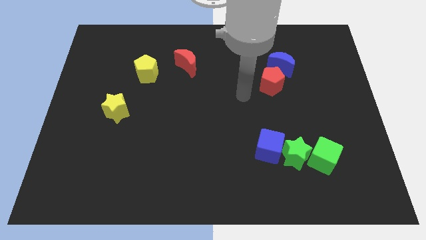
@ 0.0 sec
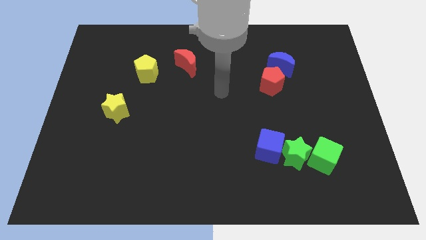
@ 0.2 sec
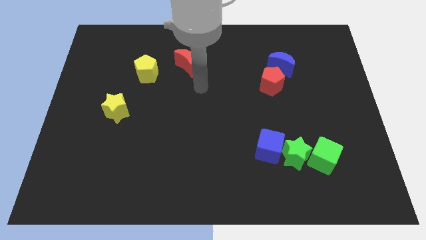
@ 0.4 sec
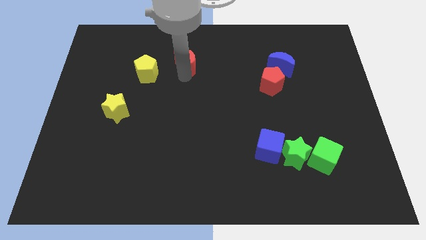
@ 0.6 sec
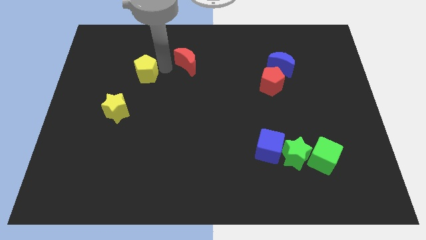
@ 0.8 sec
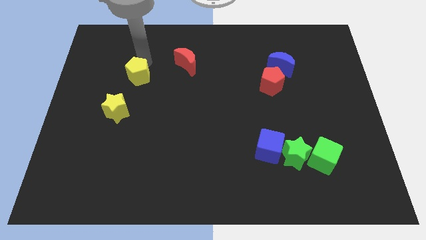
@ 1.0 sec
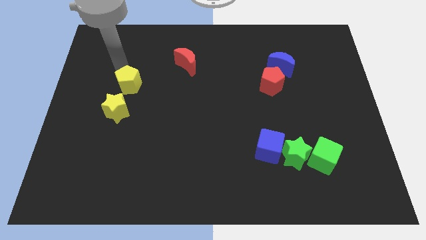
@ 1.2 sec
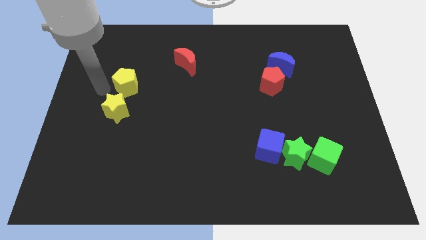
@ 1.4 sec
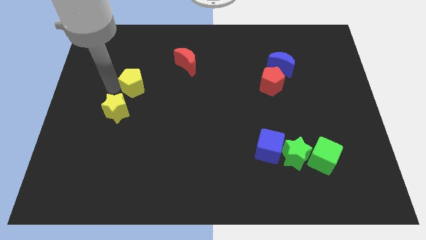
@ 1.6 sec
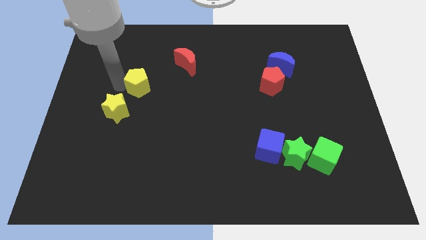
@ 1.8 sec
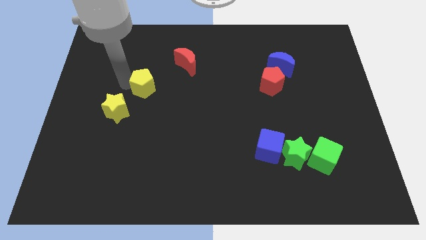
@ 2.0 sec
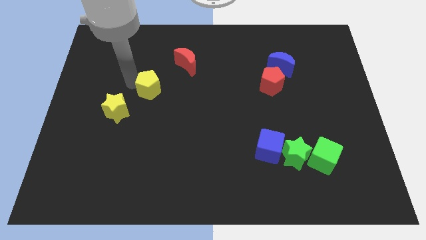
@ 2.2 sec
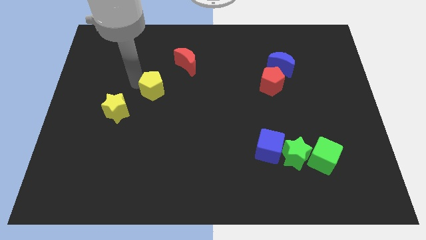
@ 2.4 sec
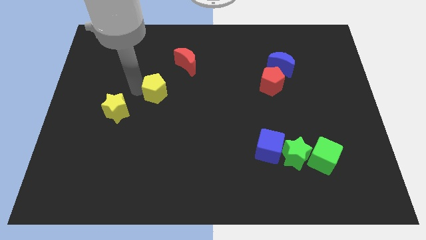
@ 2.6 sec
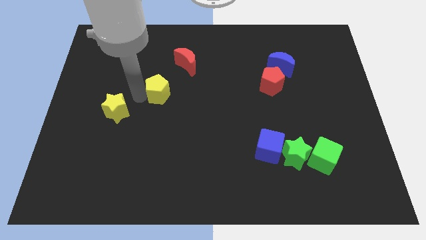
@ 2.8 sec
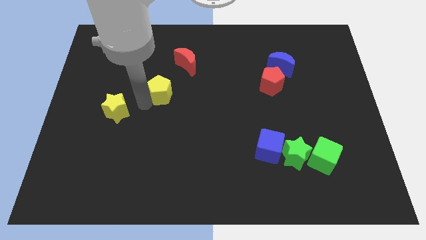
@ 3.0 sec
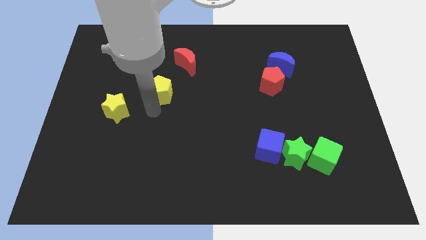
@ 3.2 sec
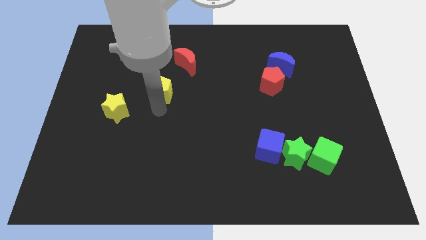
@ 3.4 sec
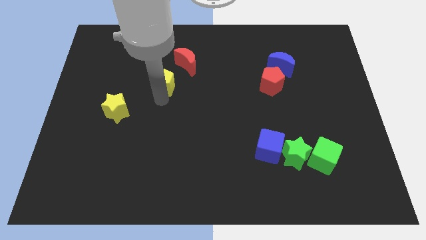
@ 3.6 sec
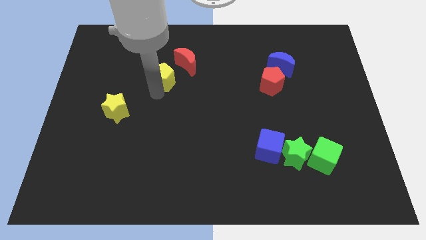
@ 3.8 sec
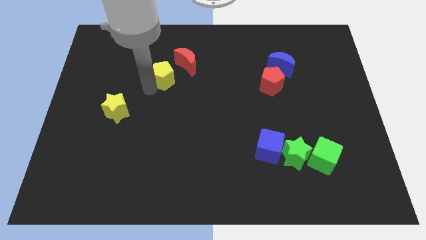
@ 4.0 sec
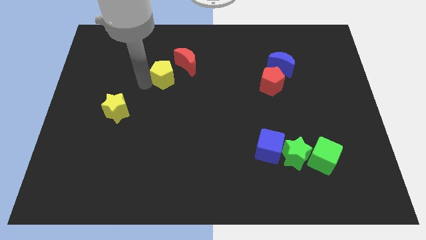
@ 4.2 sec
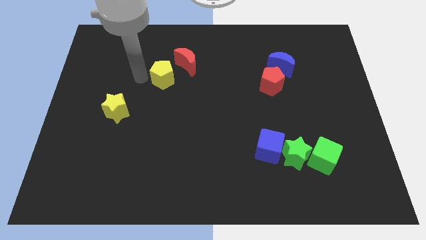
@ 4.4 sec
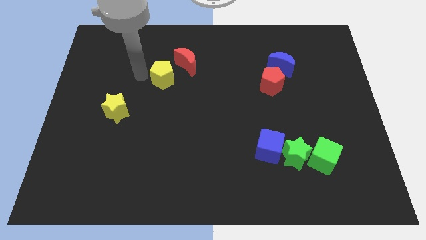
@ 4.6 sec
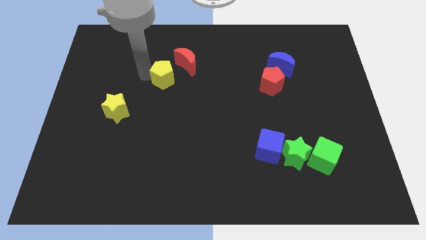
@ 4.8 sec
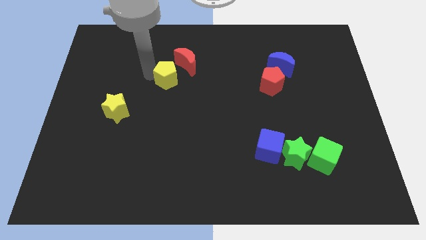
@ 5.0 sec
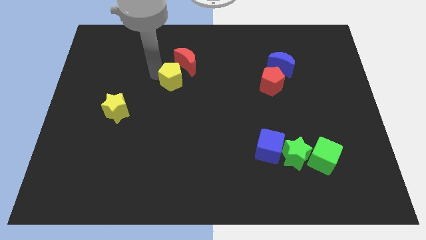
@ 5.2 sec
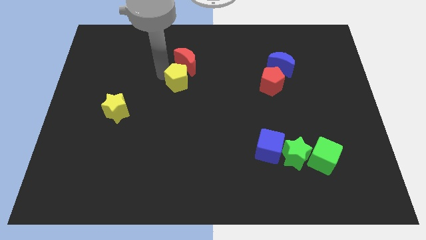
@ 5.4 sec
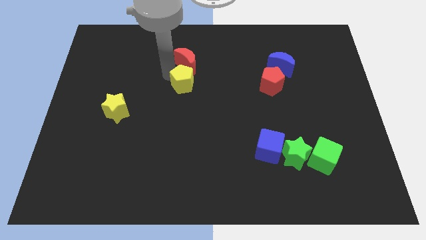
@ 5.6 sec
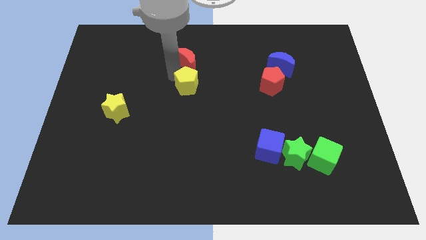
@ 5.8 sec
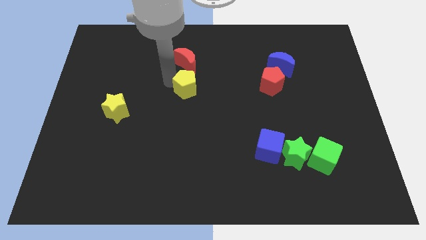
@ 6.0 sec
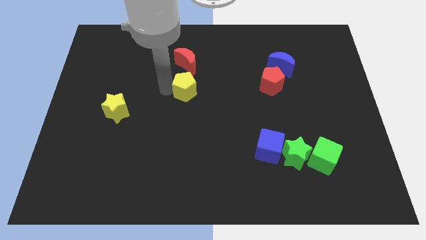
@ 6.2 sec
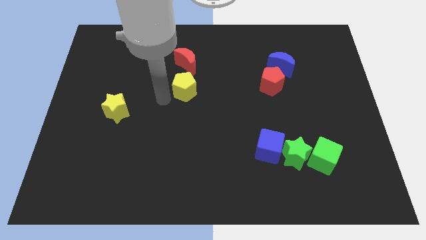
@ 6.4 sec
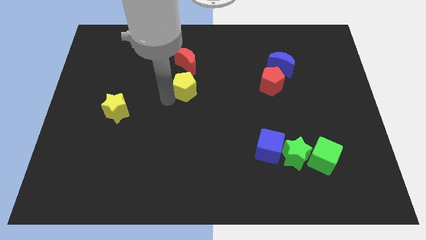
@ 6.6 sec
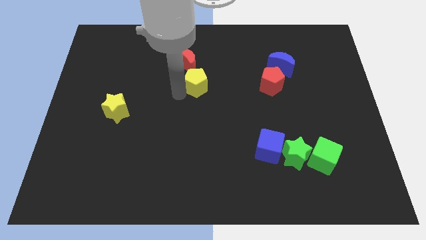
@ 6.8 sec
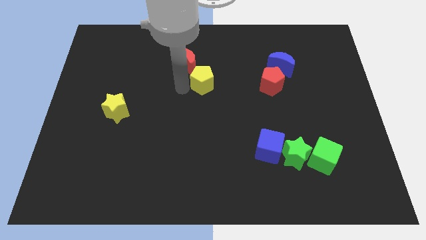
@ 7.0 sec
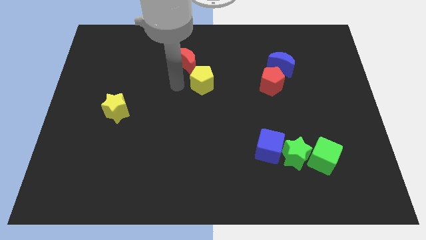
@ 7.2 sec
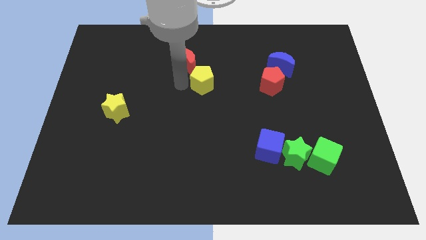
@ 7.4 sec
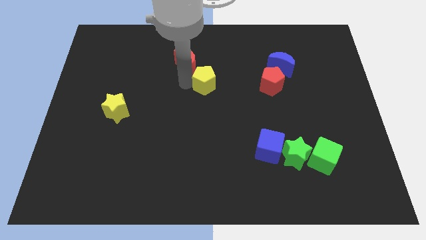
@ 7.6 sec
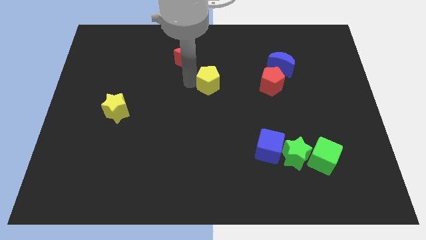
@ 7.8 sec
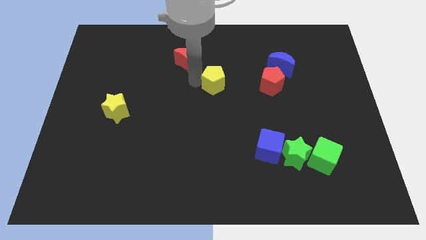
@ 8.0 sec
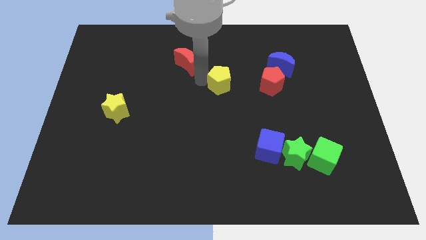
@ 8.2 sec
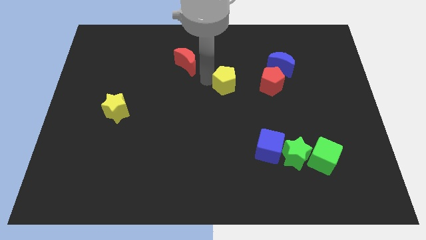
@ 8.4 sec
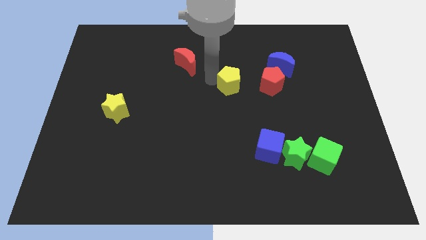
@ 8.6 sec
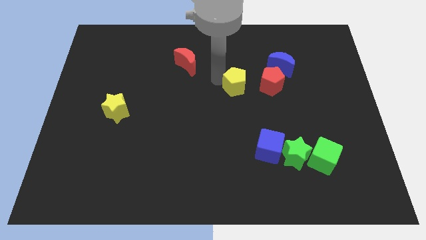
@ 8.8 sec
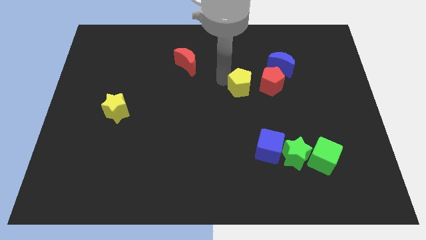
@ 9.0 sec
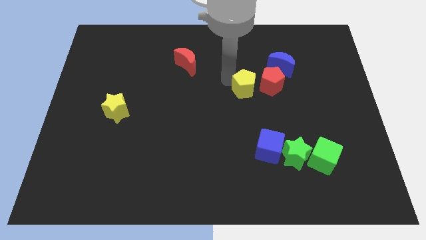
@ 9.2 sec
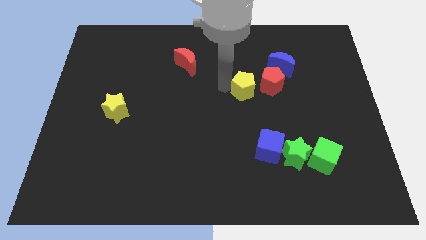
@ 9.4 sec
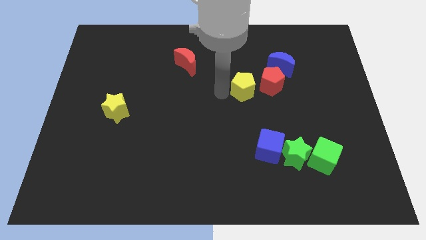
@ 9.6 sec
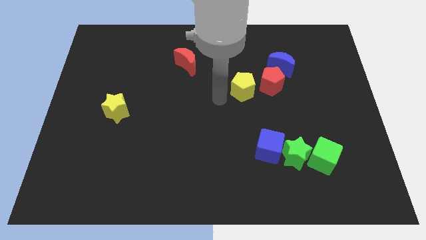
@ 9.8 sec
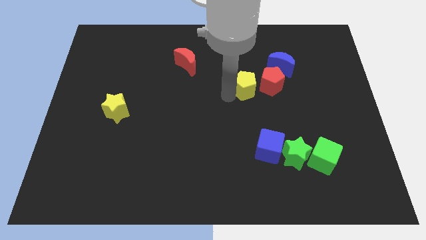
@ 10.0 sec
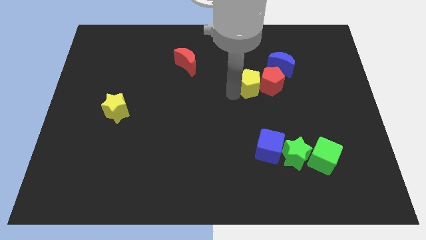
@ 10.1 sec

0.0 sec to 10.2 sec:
push the yellow pentagon next to the red pentagon
